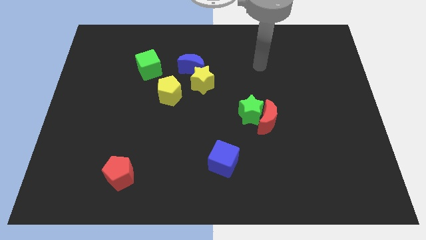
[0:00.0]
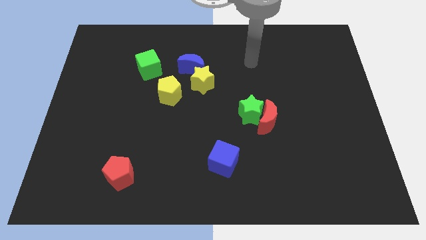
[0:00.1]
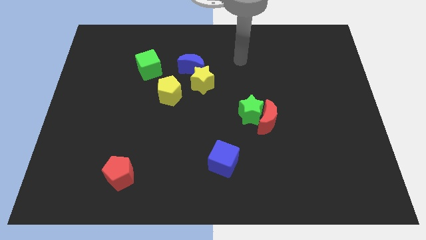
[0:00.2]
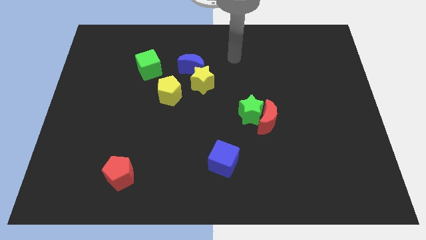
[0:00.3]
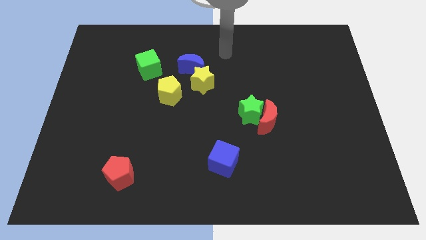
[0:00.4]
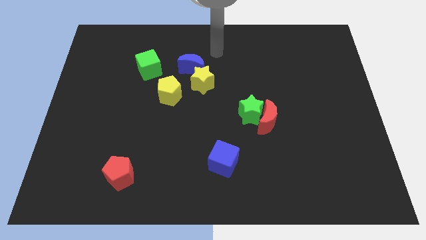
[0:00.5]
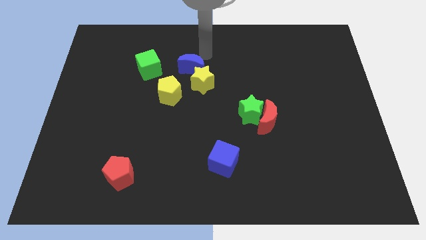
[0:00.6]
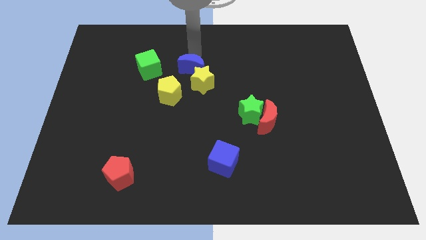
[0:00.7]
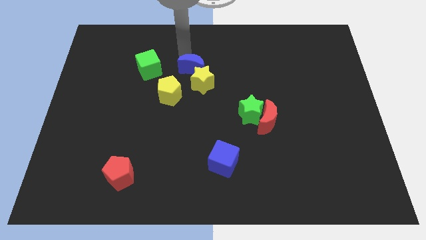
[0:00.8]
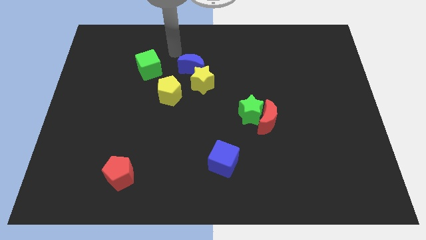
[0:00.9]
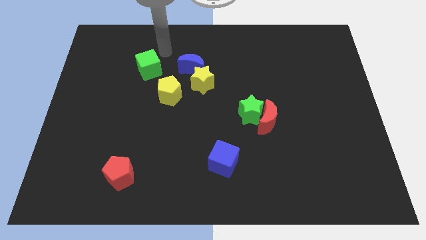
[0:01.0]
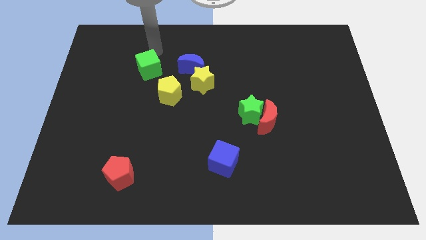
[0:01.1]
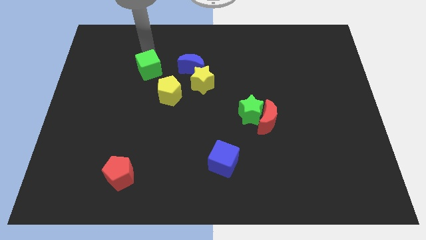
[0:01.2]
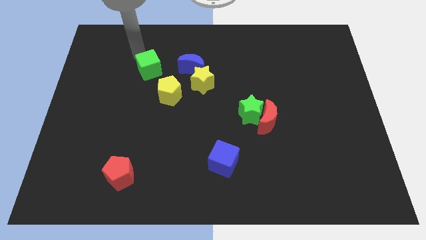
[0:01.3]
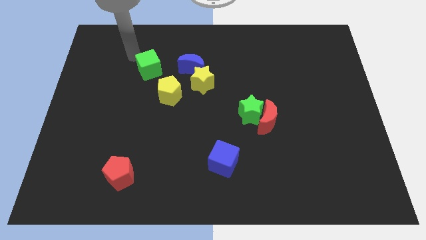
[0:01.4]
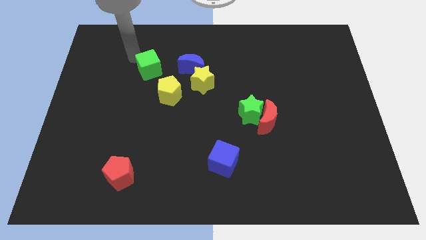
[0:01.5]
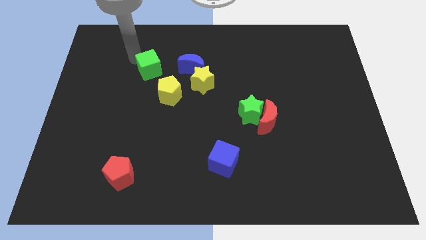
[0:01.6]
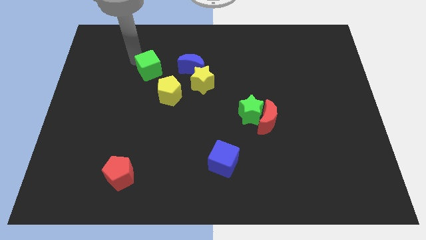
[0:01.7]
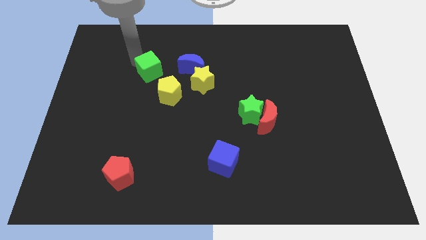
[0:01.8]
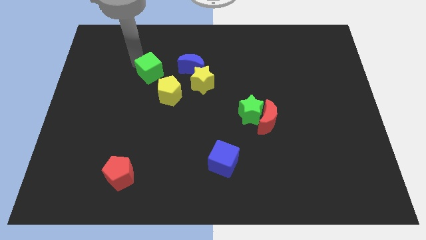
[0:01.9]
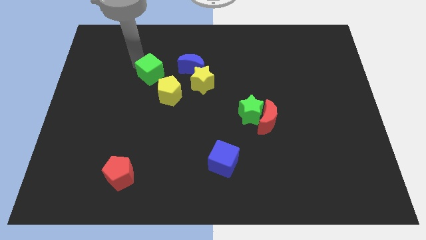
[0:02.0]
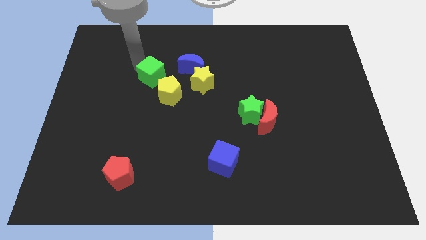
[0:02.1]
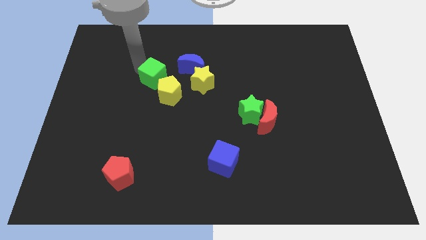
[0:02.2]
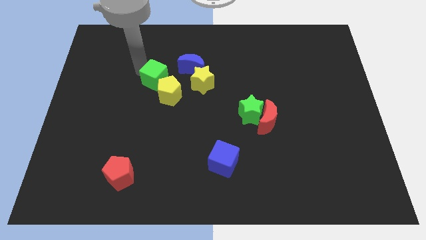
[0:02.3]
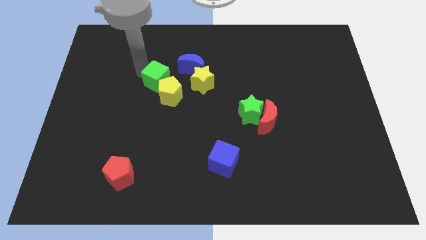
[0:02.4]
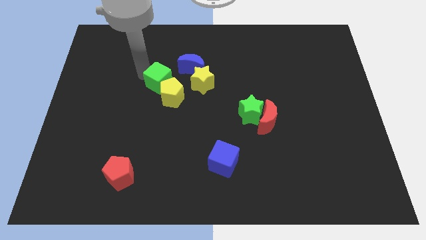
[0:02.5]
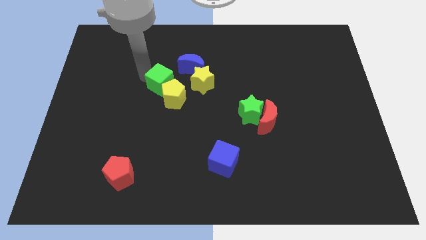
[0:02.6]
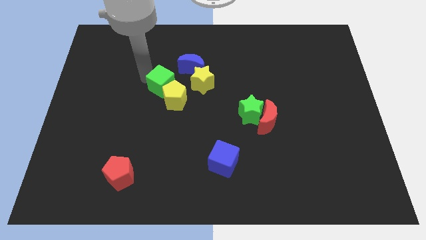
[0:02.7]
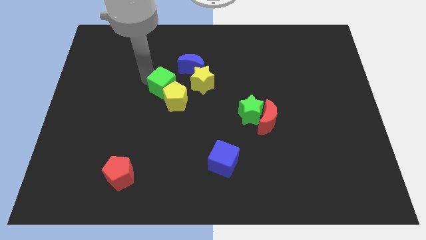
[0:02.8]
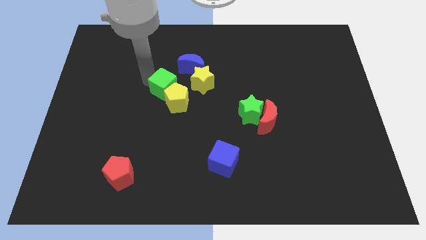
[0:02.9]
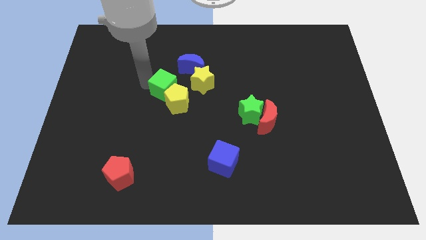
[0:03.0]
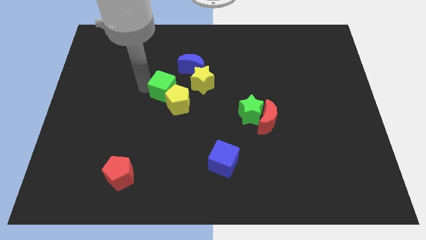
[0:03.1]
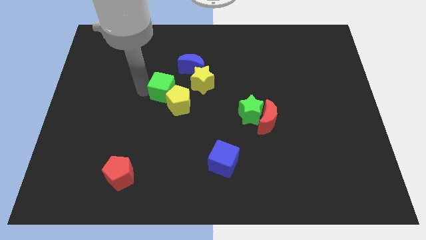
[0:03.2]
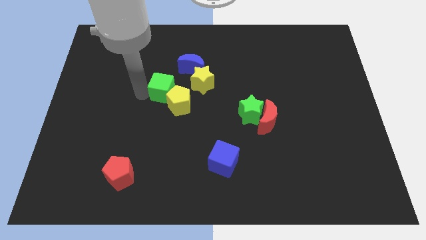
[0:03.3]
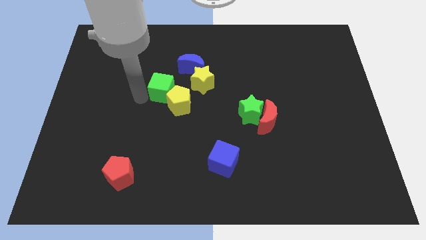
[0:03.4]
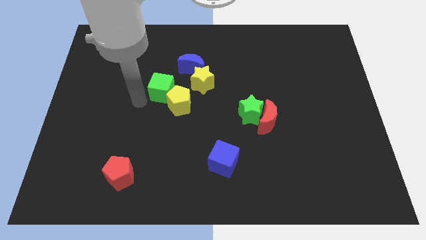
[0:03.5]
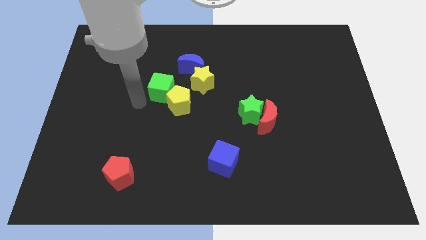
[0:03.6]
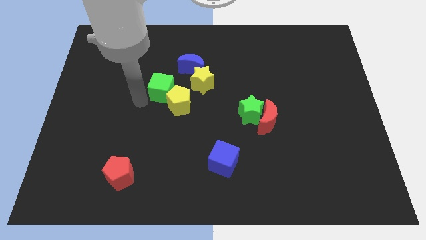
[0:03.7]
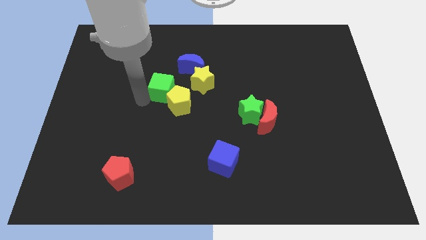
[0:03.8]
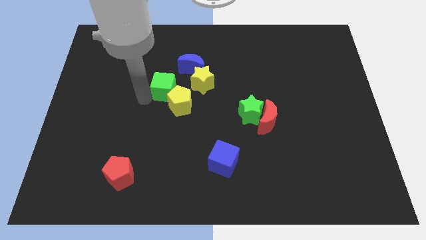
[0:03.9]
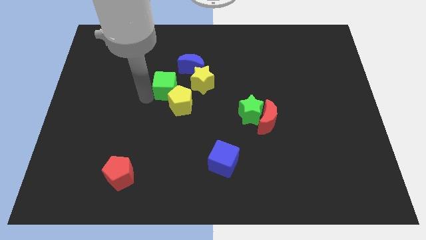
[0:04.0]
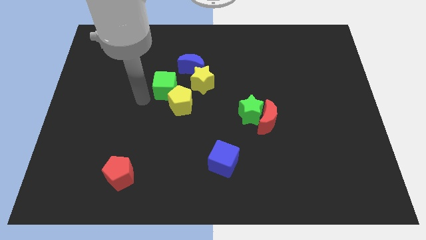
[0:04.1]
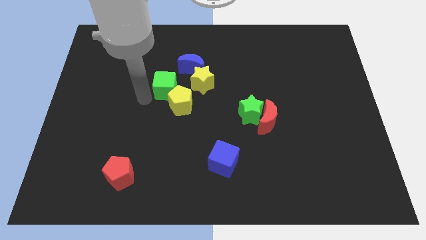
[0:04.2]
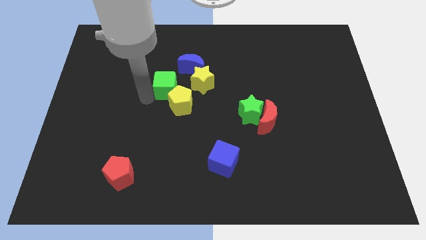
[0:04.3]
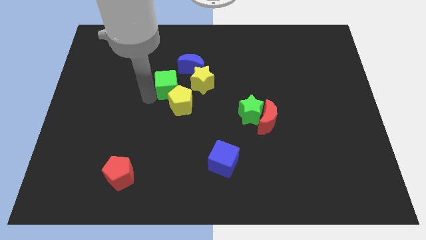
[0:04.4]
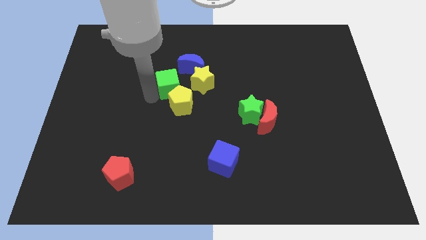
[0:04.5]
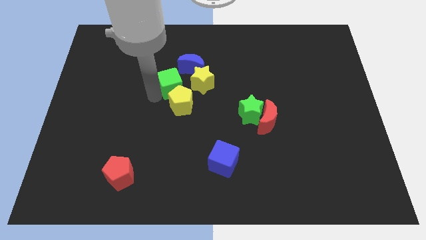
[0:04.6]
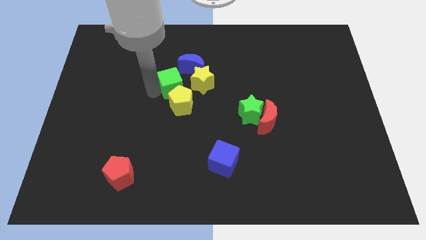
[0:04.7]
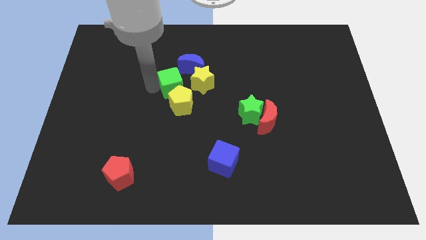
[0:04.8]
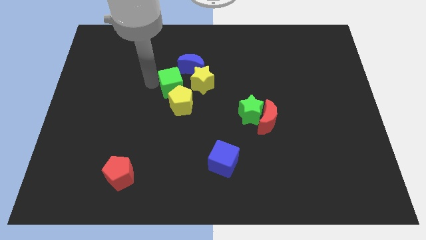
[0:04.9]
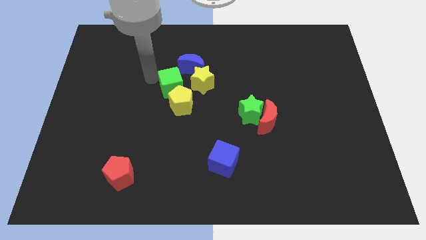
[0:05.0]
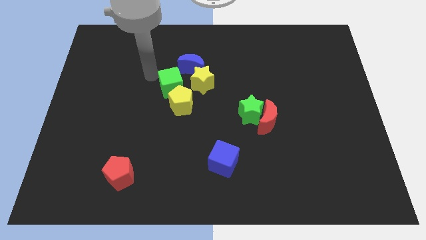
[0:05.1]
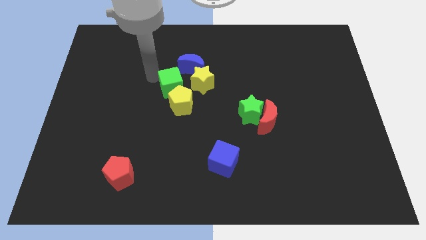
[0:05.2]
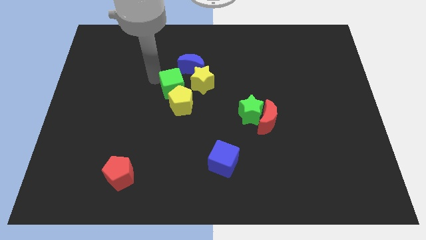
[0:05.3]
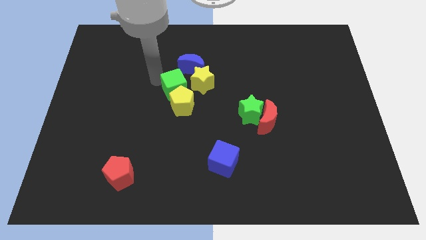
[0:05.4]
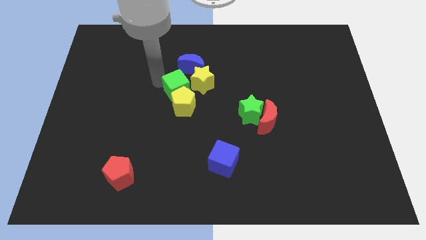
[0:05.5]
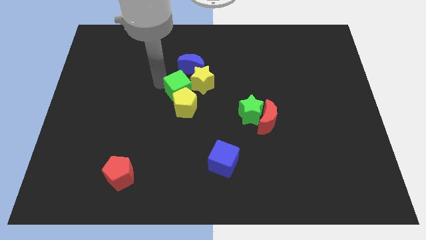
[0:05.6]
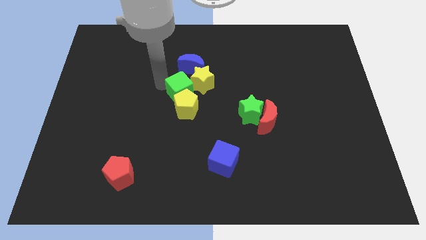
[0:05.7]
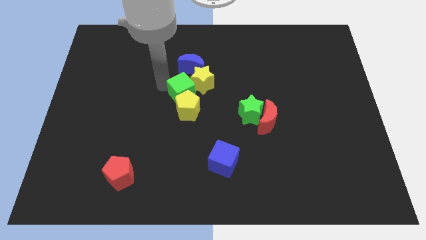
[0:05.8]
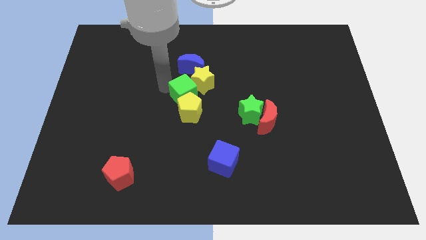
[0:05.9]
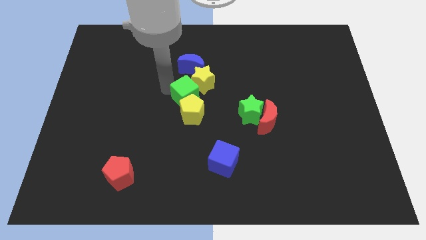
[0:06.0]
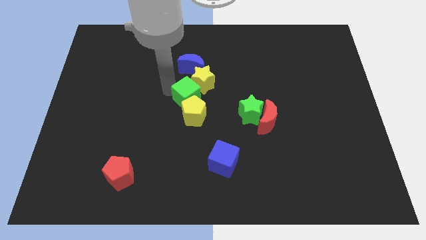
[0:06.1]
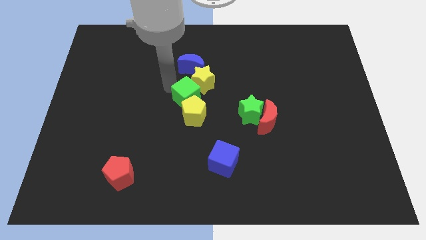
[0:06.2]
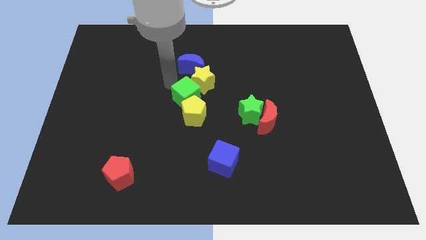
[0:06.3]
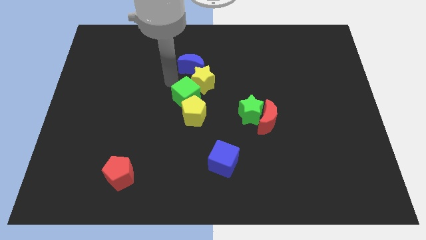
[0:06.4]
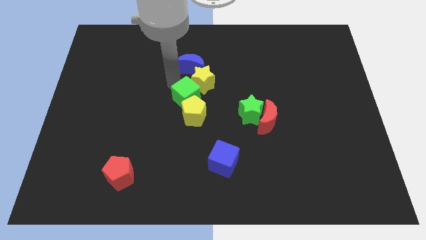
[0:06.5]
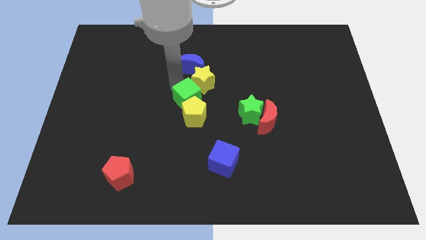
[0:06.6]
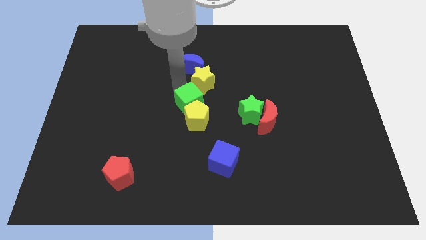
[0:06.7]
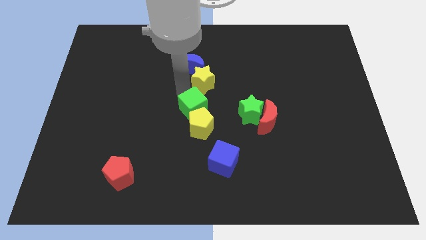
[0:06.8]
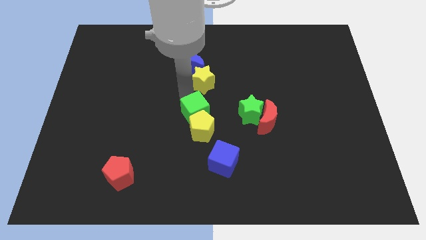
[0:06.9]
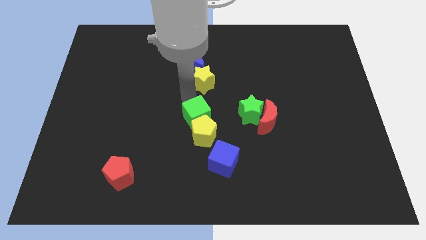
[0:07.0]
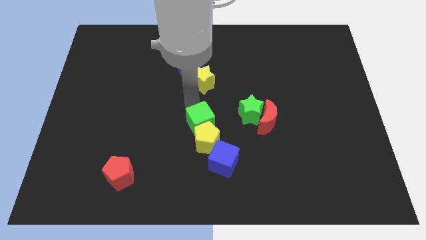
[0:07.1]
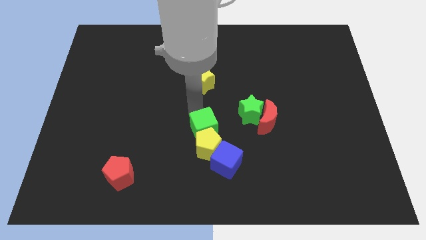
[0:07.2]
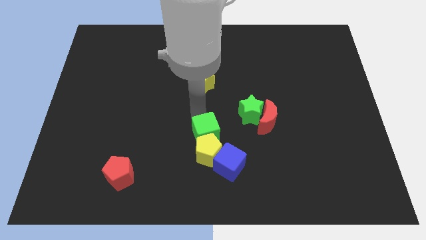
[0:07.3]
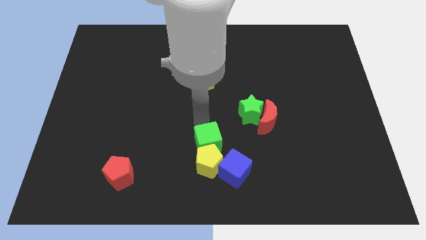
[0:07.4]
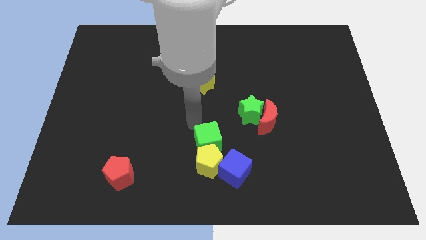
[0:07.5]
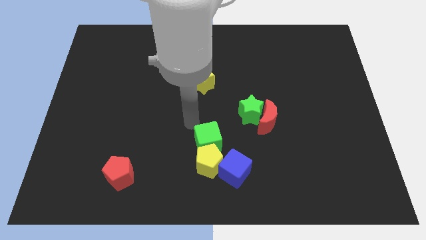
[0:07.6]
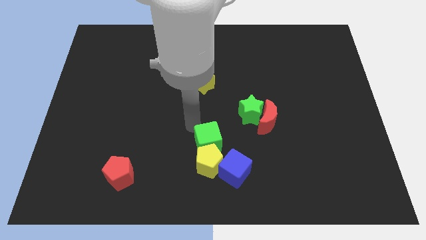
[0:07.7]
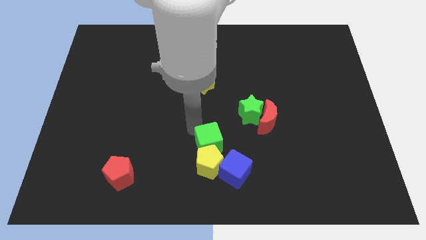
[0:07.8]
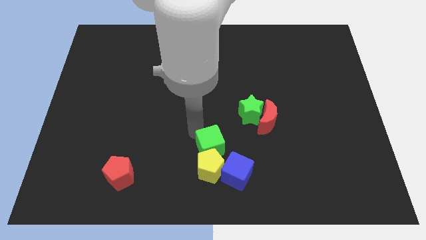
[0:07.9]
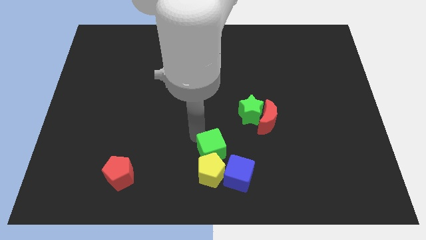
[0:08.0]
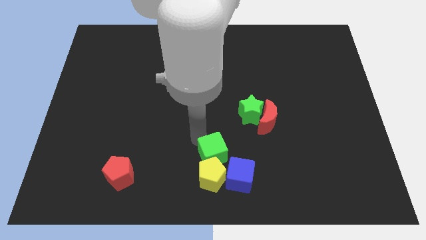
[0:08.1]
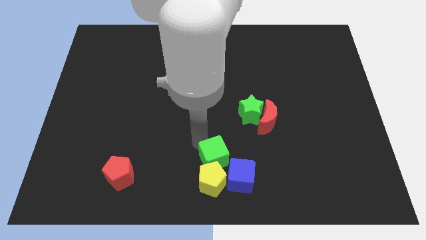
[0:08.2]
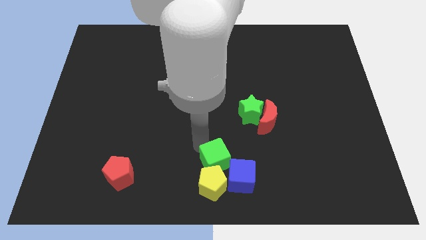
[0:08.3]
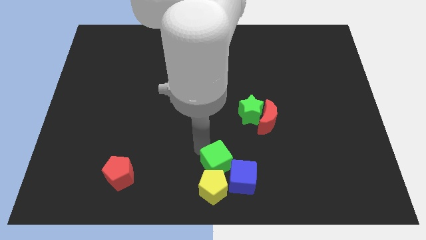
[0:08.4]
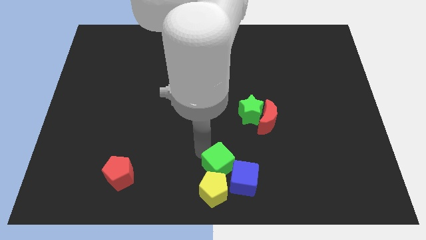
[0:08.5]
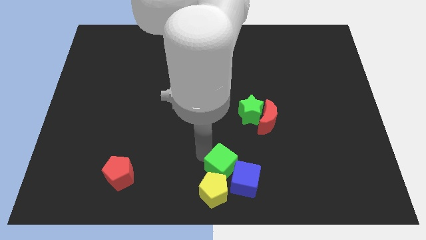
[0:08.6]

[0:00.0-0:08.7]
put the green cube to the blue cube
